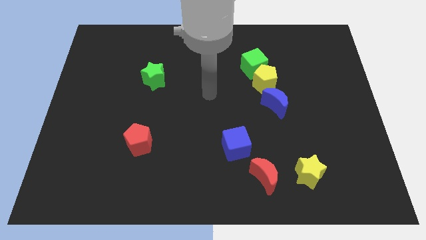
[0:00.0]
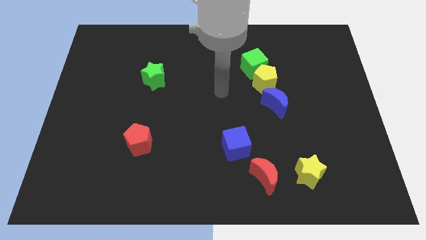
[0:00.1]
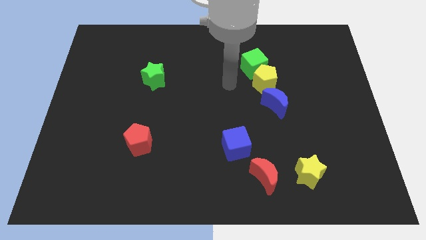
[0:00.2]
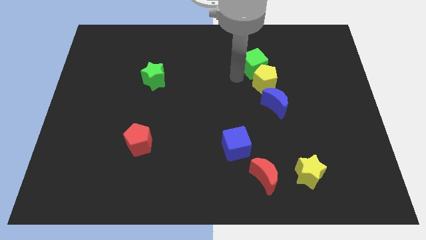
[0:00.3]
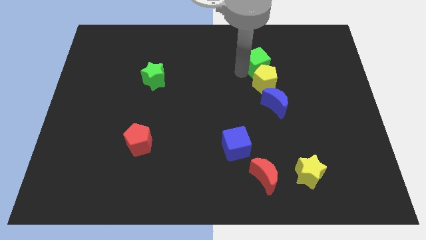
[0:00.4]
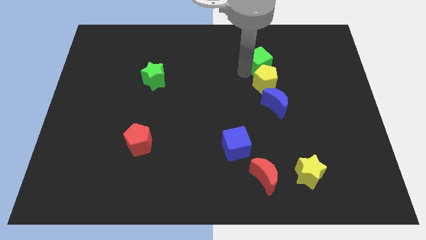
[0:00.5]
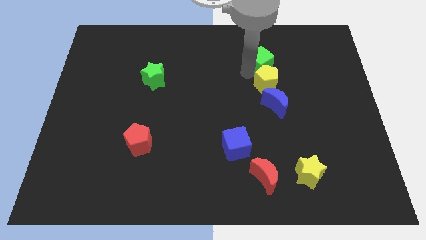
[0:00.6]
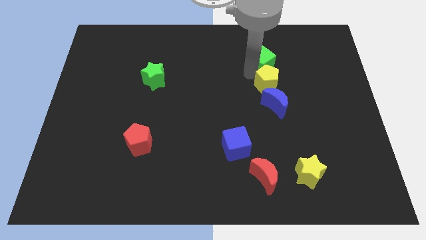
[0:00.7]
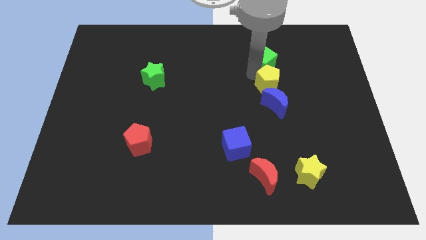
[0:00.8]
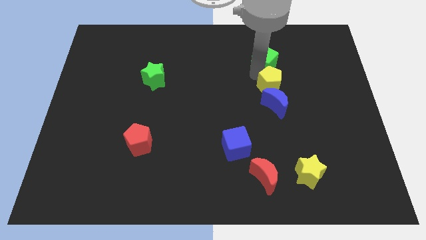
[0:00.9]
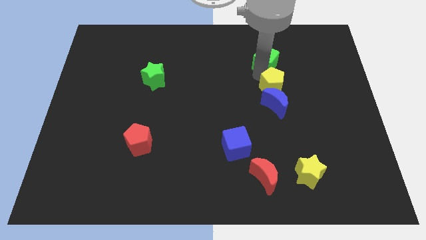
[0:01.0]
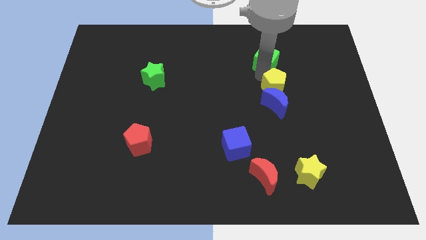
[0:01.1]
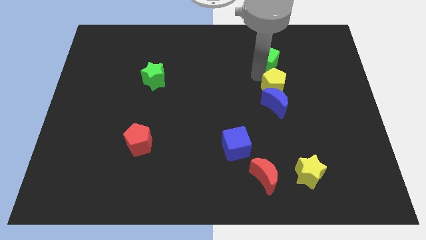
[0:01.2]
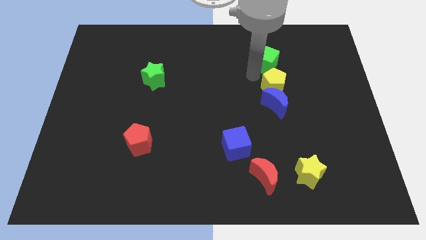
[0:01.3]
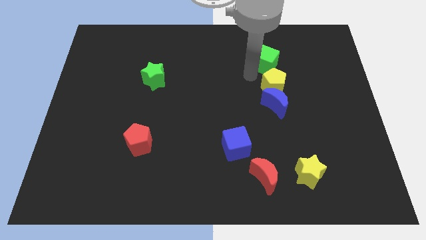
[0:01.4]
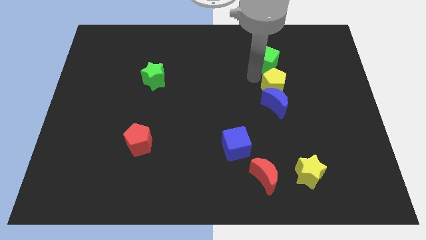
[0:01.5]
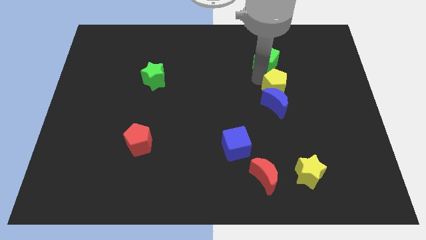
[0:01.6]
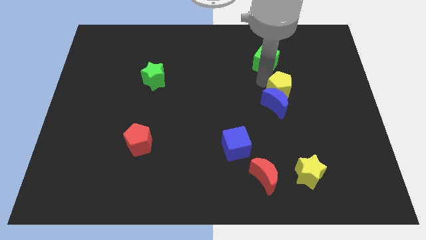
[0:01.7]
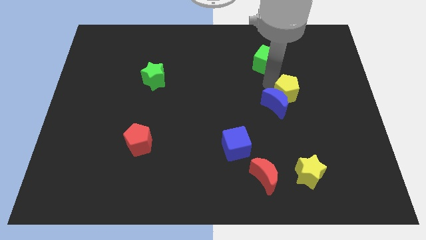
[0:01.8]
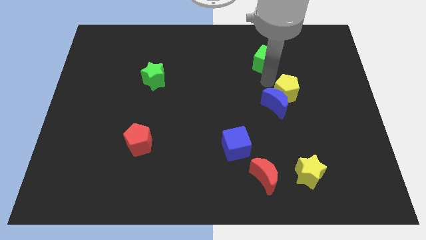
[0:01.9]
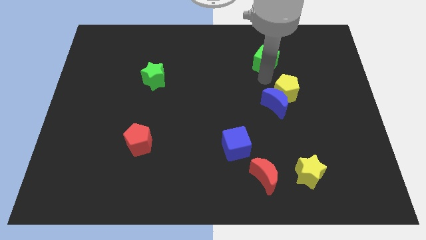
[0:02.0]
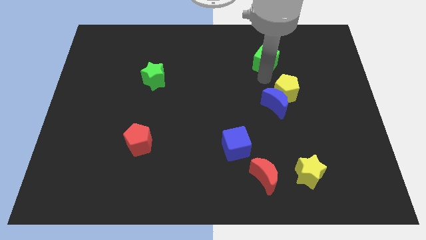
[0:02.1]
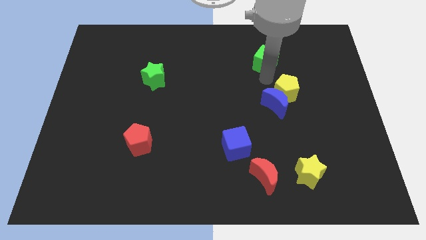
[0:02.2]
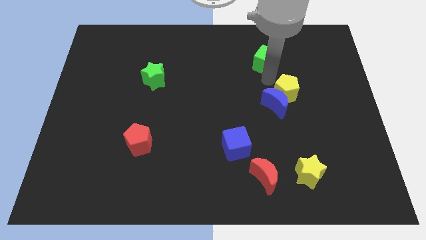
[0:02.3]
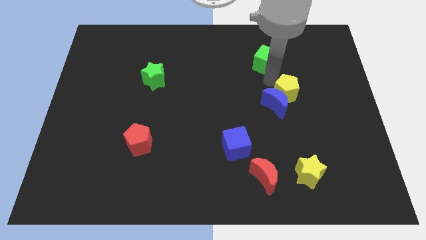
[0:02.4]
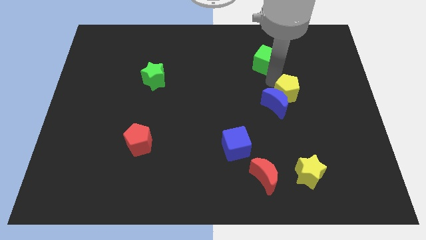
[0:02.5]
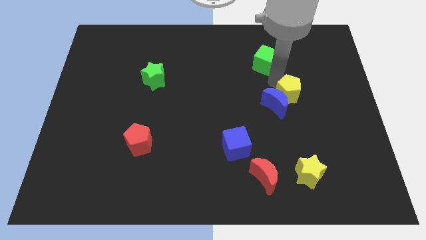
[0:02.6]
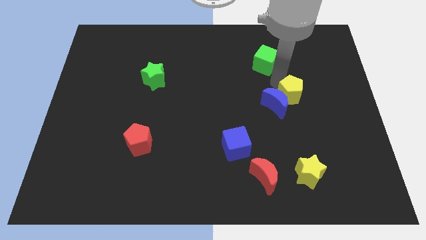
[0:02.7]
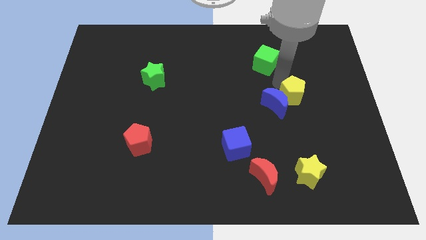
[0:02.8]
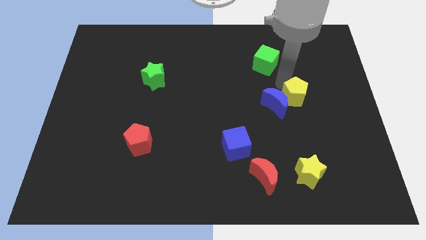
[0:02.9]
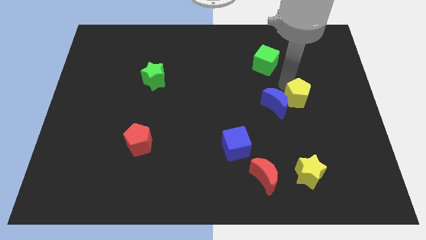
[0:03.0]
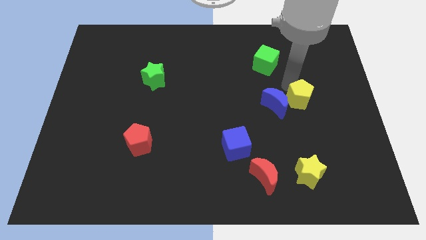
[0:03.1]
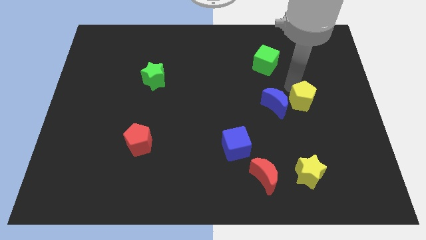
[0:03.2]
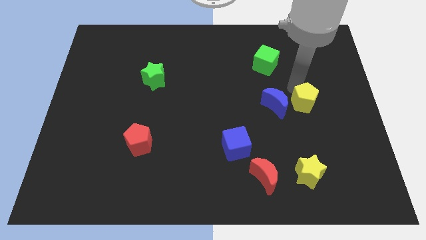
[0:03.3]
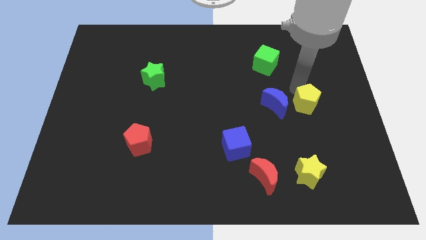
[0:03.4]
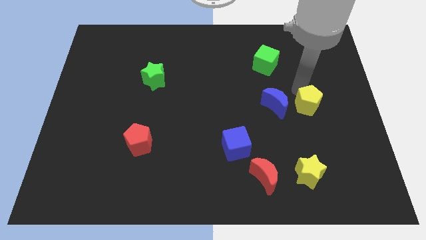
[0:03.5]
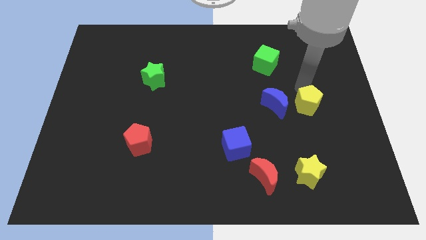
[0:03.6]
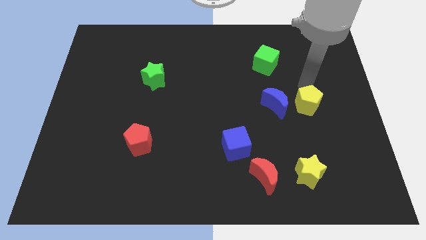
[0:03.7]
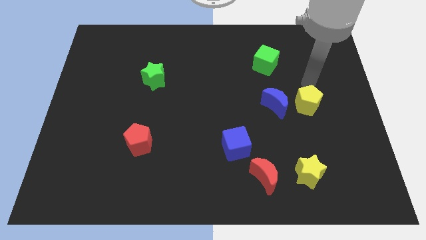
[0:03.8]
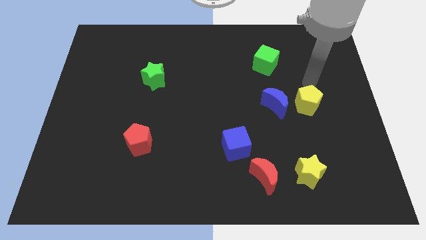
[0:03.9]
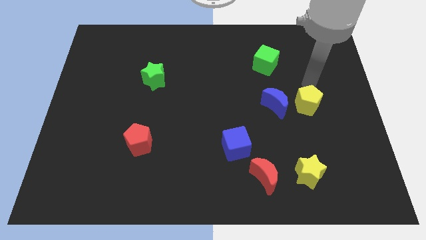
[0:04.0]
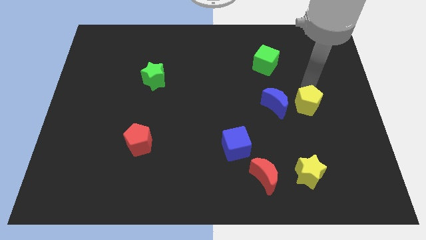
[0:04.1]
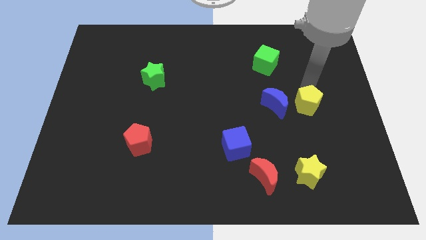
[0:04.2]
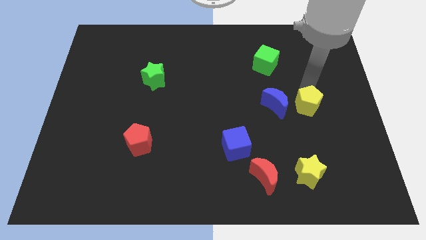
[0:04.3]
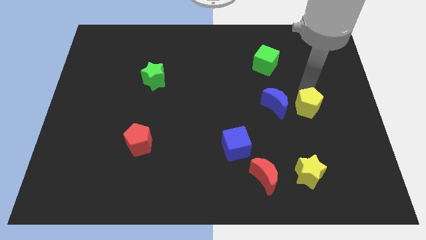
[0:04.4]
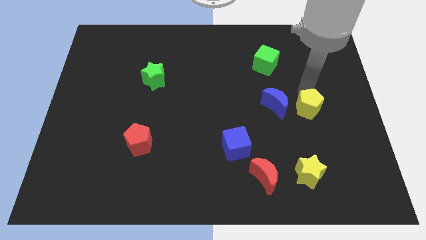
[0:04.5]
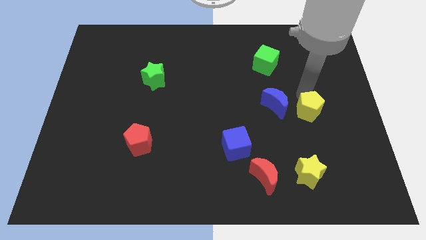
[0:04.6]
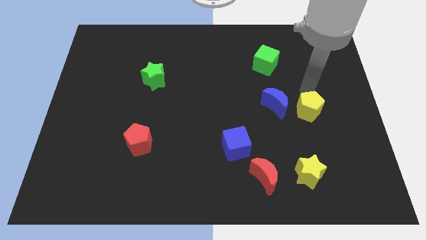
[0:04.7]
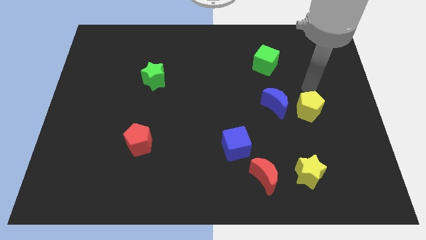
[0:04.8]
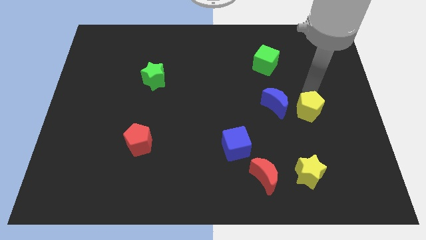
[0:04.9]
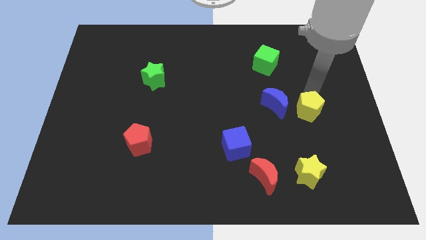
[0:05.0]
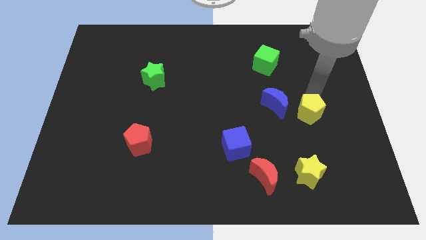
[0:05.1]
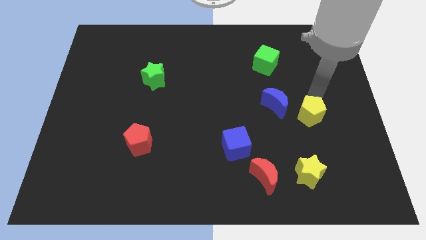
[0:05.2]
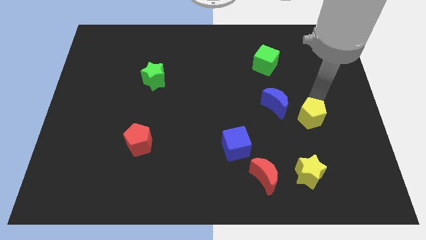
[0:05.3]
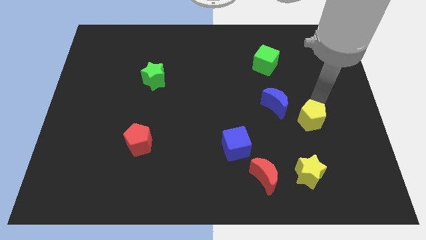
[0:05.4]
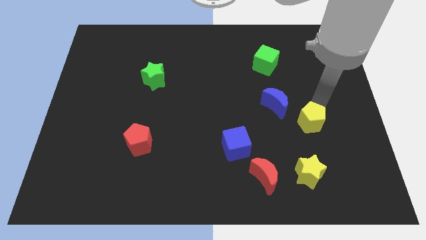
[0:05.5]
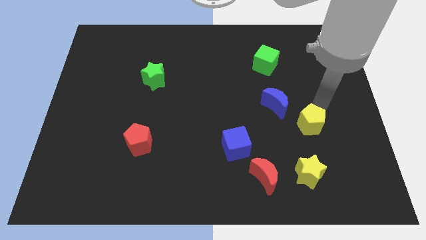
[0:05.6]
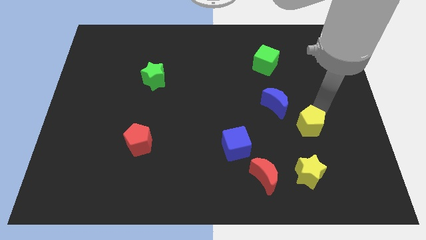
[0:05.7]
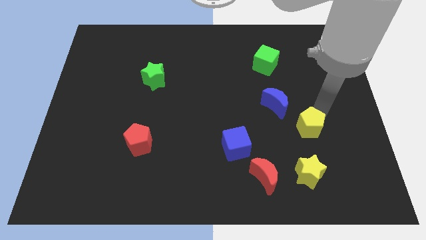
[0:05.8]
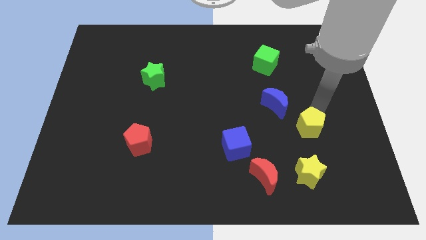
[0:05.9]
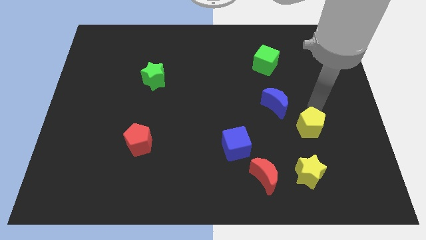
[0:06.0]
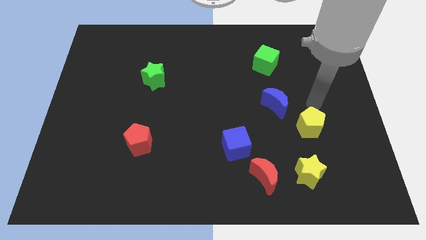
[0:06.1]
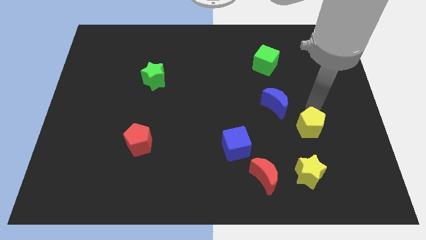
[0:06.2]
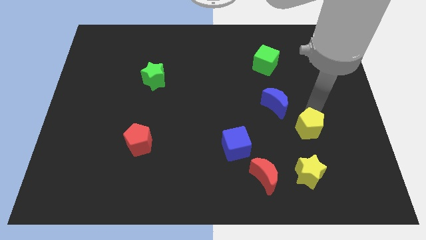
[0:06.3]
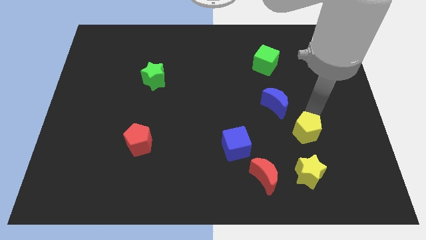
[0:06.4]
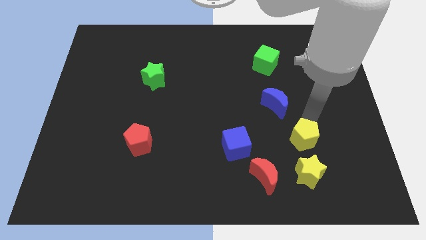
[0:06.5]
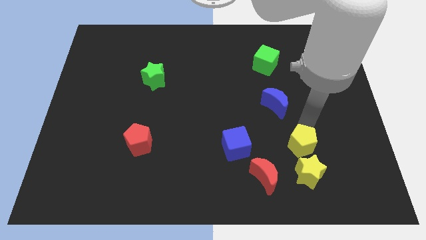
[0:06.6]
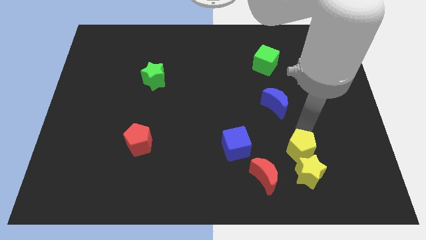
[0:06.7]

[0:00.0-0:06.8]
push the yellow pentagon to the yellow star
